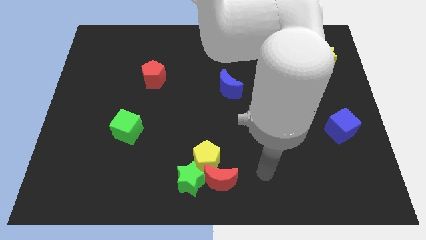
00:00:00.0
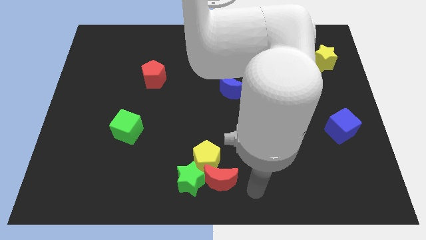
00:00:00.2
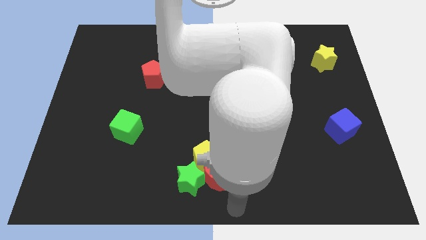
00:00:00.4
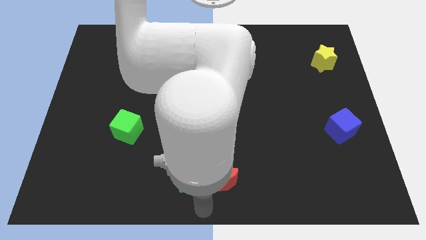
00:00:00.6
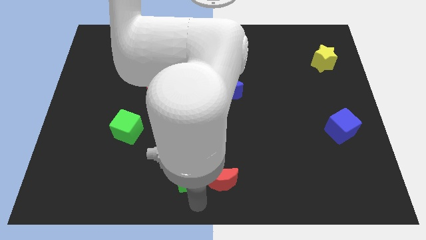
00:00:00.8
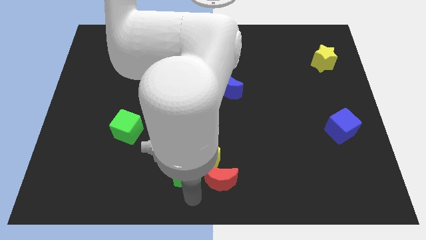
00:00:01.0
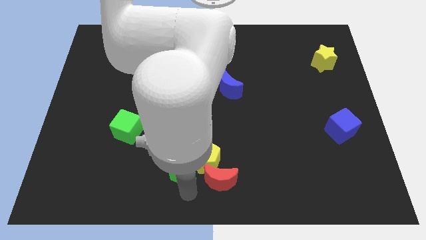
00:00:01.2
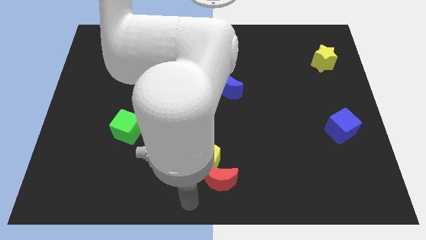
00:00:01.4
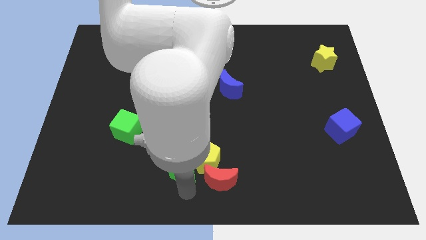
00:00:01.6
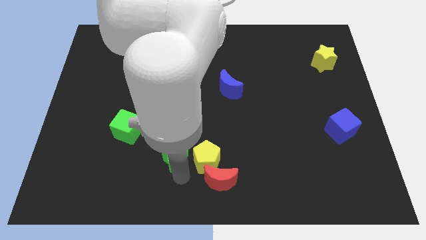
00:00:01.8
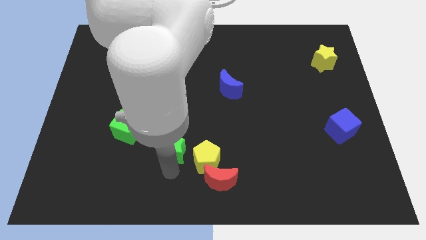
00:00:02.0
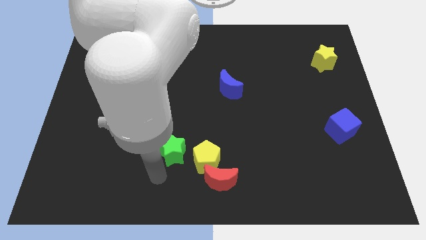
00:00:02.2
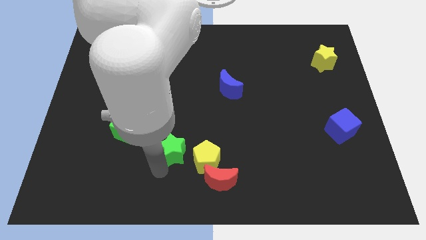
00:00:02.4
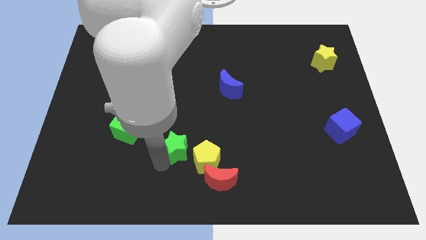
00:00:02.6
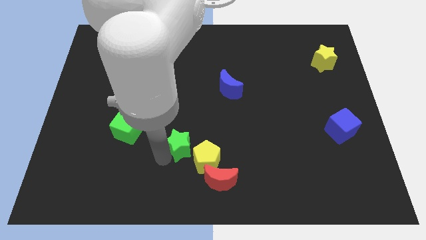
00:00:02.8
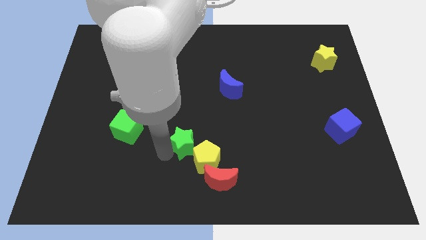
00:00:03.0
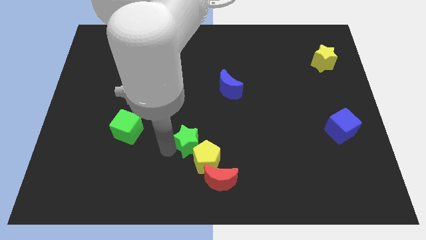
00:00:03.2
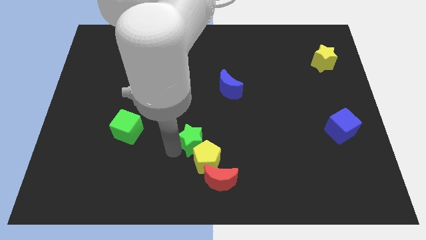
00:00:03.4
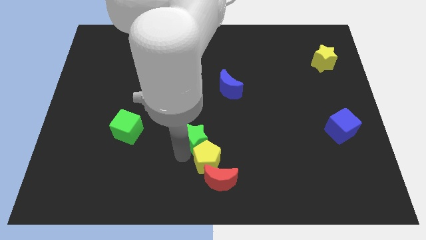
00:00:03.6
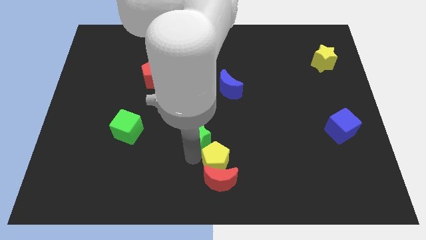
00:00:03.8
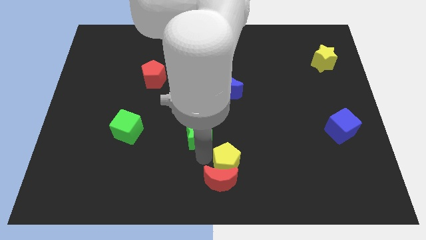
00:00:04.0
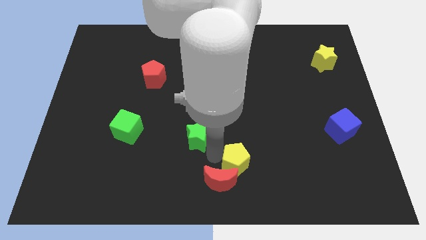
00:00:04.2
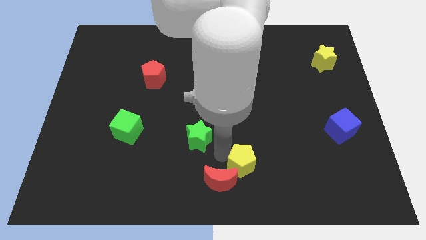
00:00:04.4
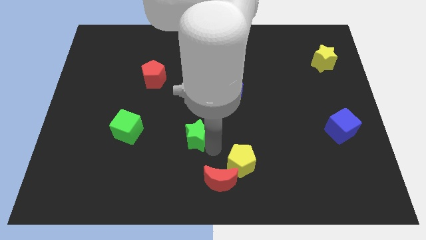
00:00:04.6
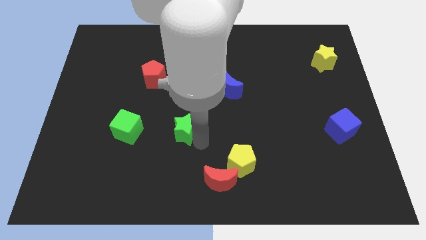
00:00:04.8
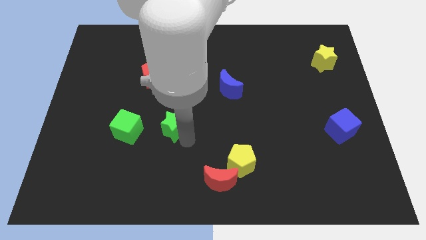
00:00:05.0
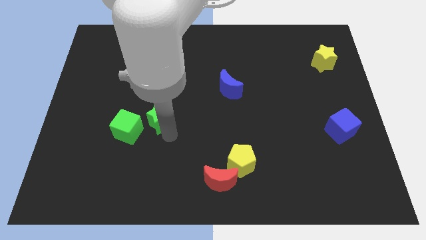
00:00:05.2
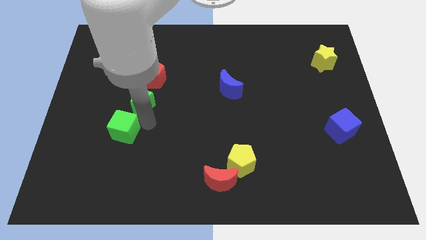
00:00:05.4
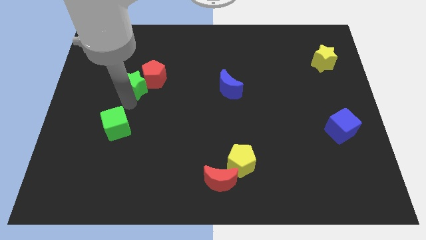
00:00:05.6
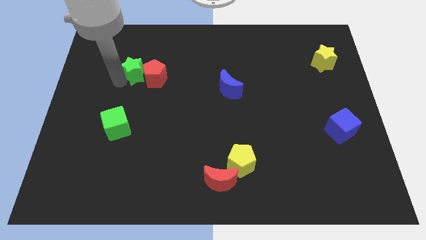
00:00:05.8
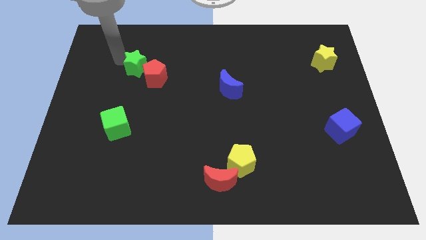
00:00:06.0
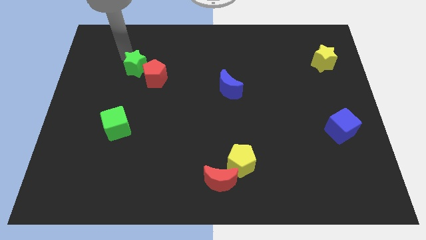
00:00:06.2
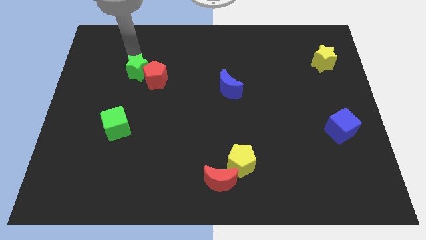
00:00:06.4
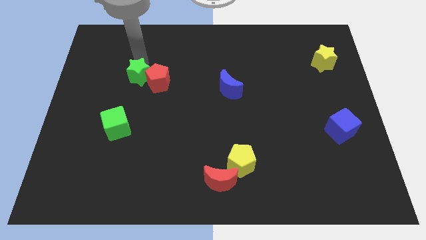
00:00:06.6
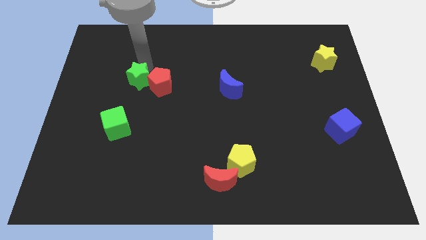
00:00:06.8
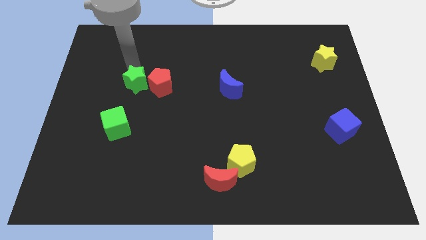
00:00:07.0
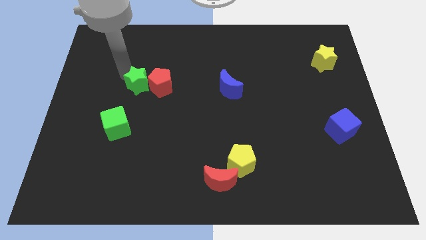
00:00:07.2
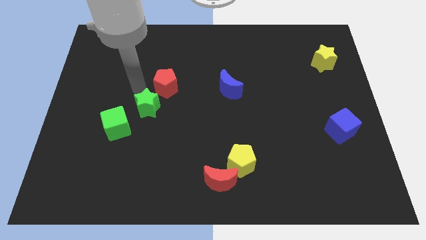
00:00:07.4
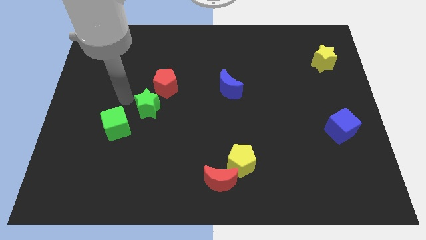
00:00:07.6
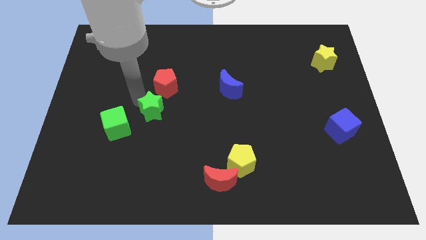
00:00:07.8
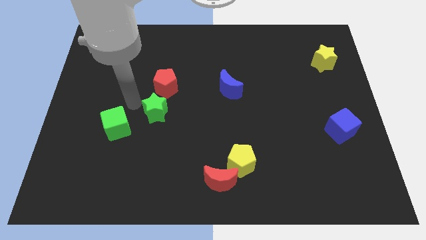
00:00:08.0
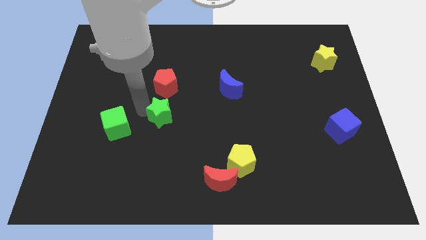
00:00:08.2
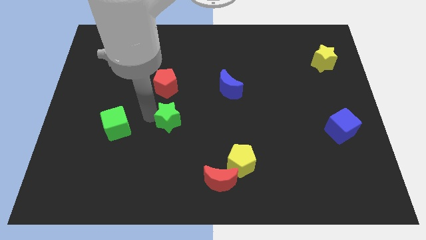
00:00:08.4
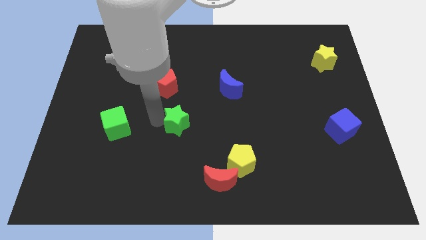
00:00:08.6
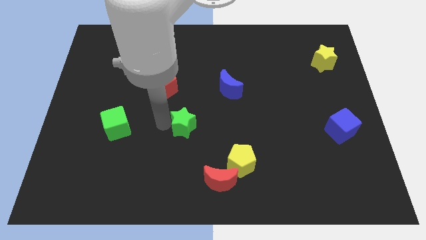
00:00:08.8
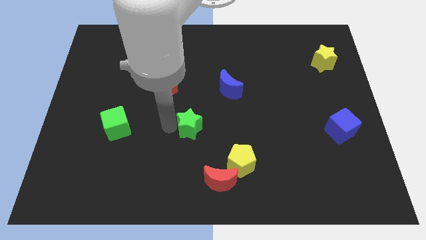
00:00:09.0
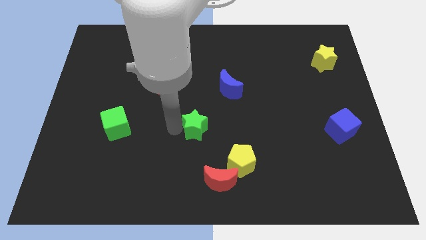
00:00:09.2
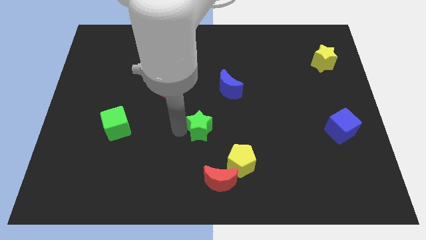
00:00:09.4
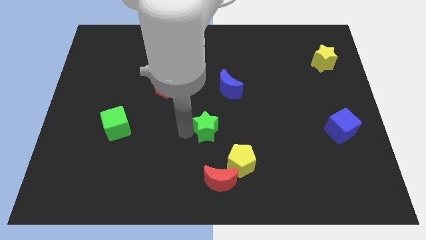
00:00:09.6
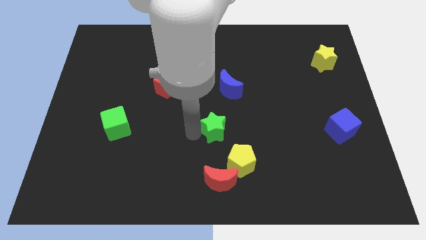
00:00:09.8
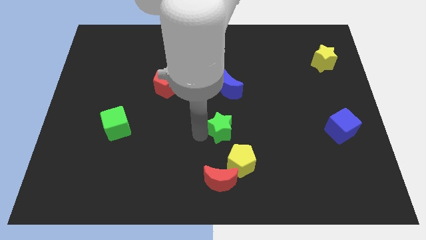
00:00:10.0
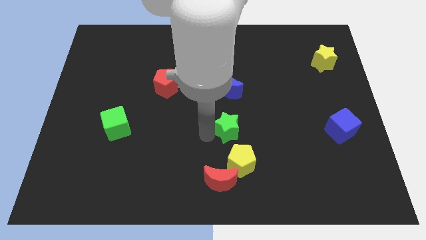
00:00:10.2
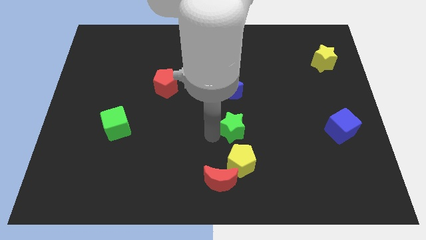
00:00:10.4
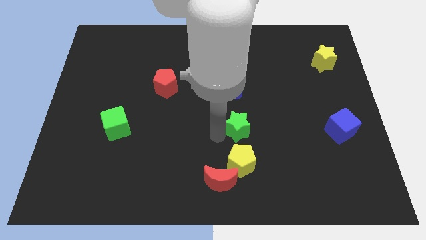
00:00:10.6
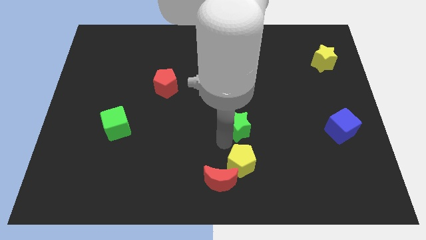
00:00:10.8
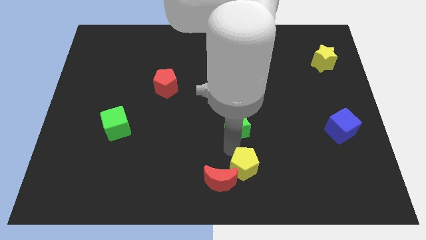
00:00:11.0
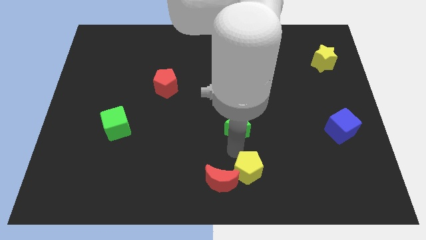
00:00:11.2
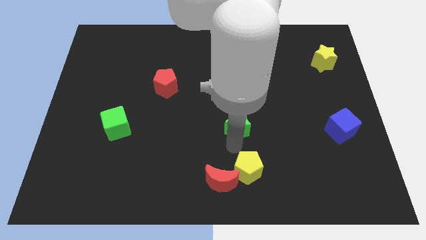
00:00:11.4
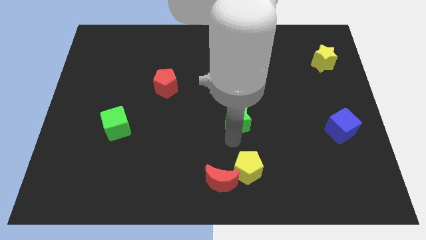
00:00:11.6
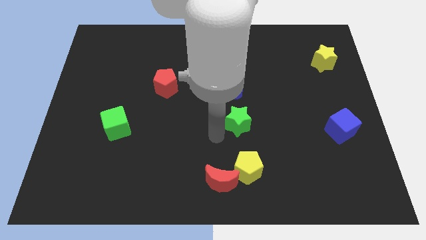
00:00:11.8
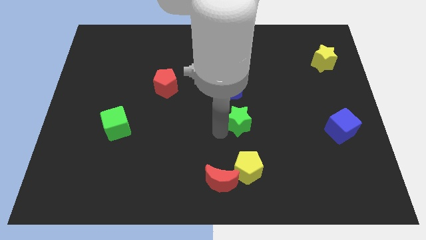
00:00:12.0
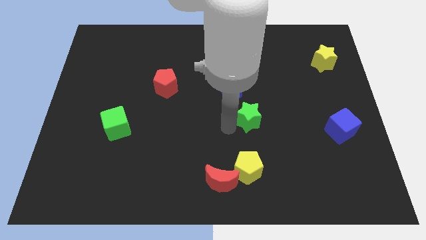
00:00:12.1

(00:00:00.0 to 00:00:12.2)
push the green star up and right diagonally

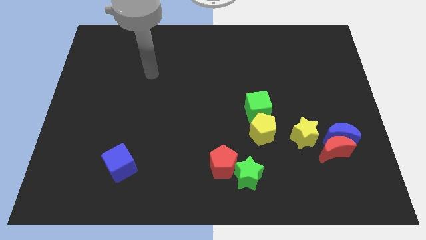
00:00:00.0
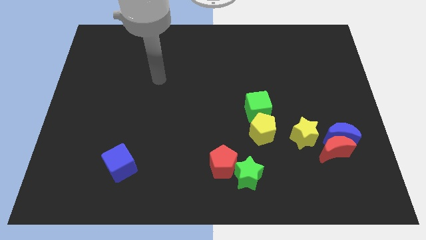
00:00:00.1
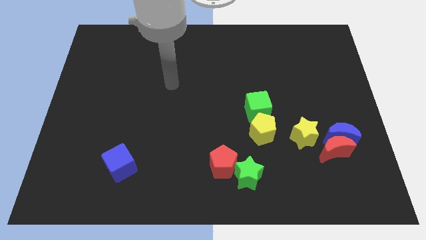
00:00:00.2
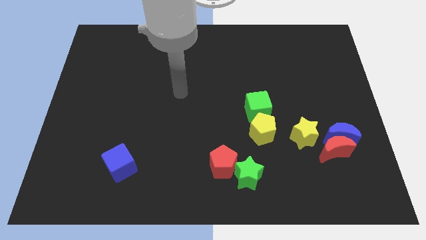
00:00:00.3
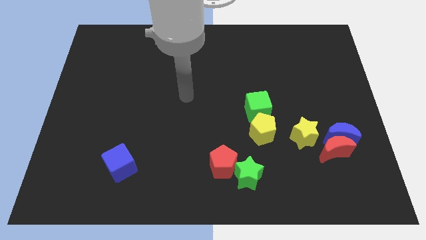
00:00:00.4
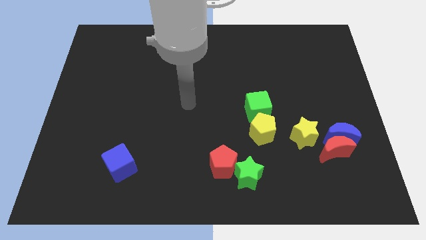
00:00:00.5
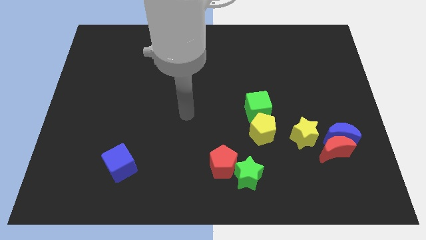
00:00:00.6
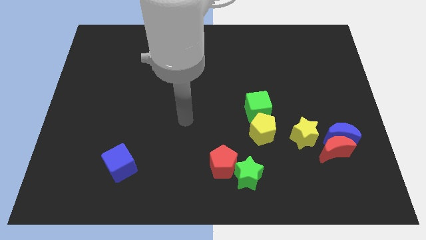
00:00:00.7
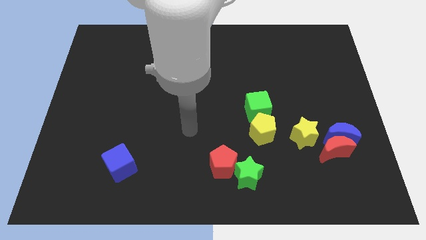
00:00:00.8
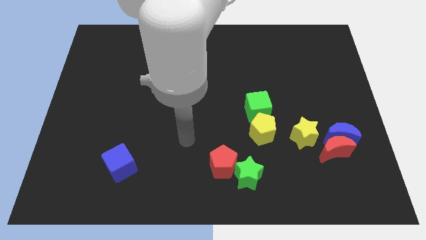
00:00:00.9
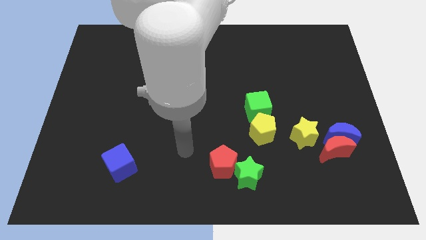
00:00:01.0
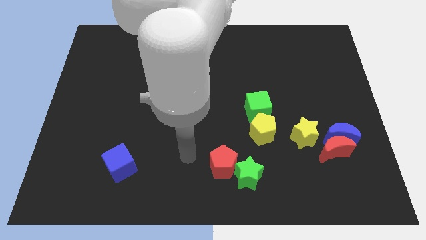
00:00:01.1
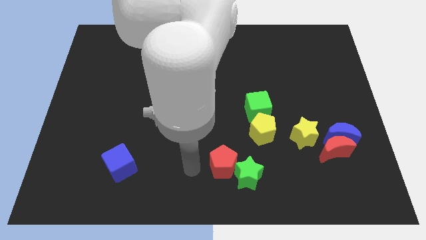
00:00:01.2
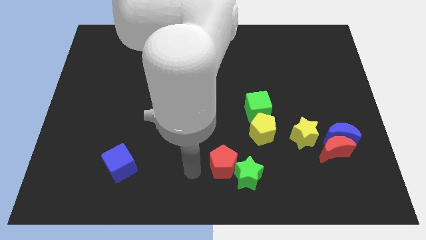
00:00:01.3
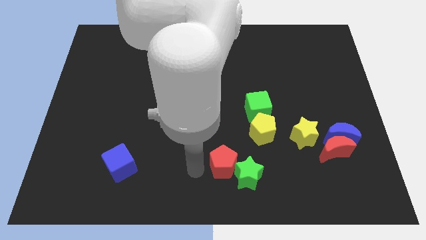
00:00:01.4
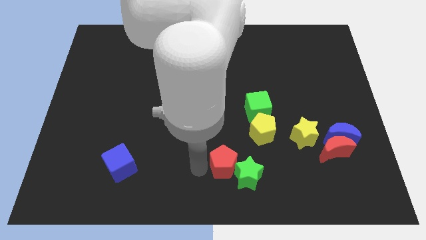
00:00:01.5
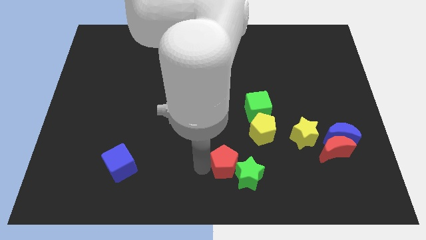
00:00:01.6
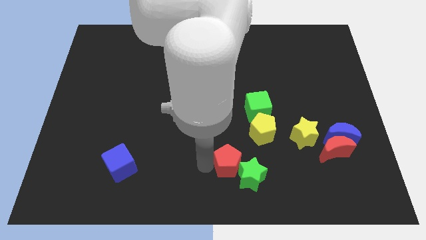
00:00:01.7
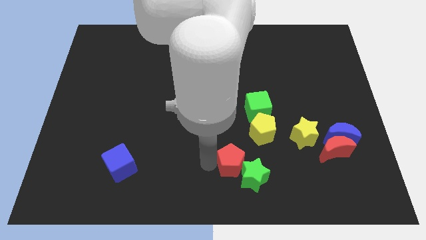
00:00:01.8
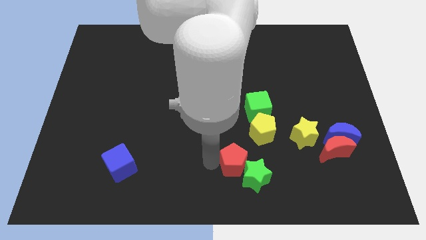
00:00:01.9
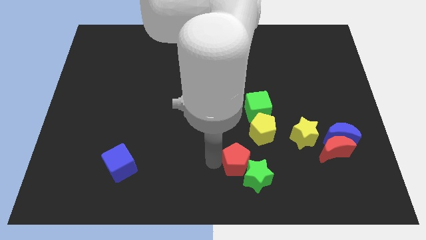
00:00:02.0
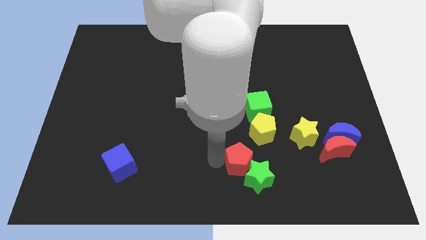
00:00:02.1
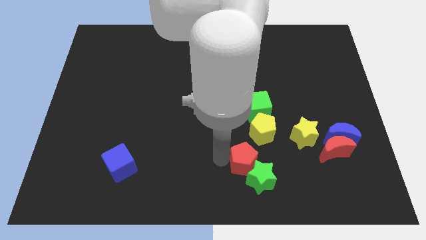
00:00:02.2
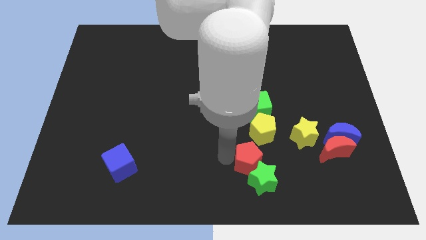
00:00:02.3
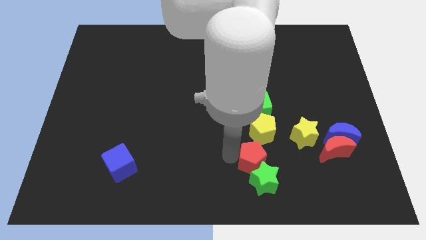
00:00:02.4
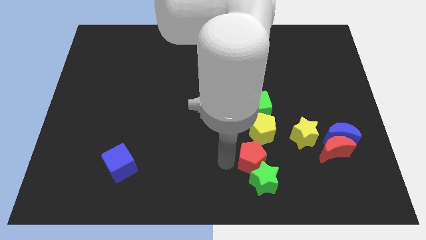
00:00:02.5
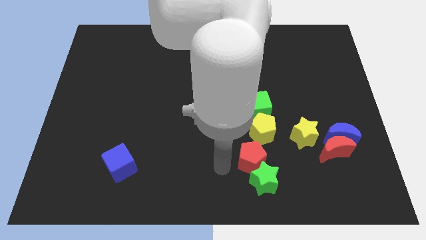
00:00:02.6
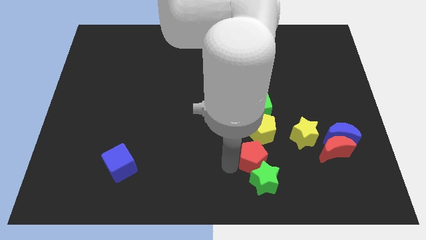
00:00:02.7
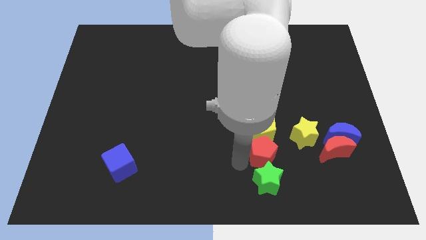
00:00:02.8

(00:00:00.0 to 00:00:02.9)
push the red pentagon upwards and right somewhat
